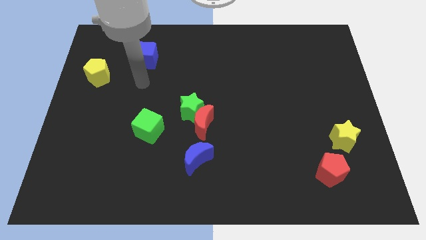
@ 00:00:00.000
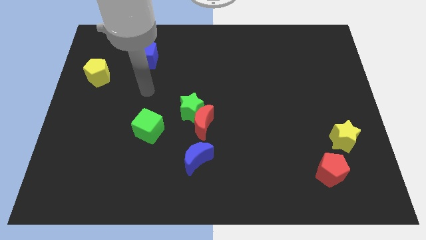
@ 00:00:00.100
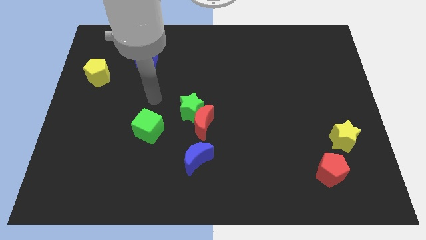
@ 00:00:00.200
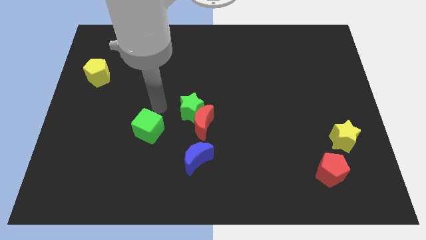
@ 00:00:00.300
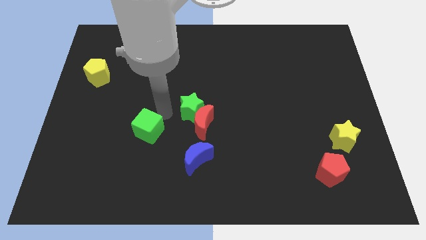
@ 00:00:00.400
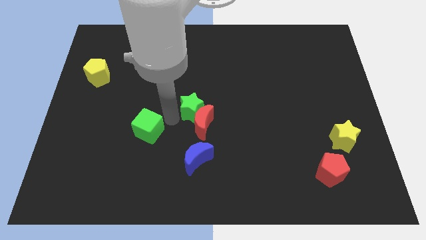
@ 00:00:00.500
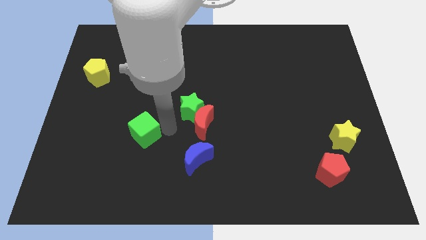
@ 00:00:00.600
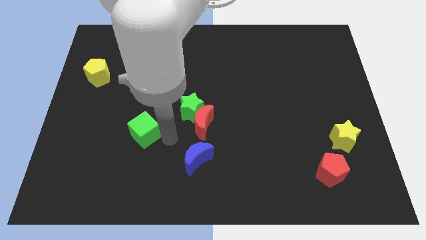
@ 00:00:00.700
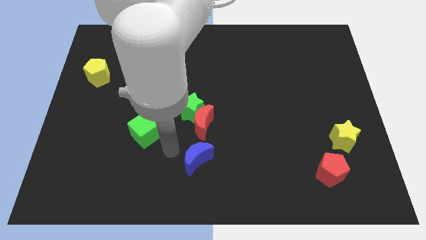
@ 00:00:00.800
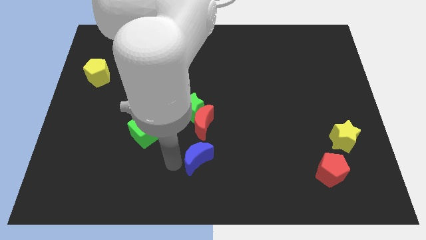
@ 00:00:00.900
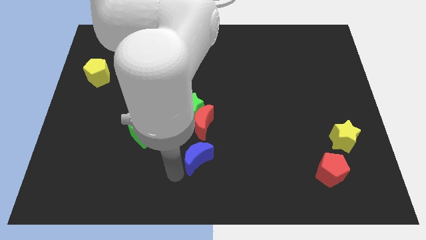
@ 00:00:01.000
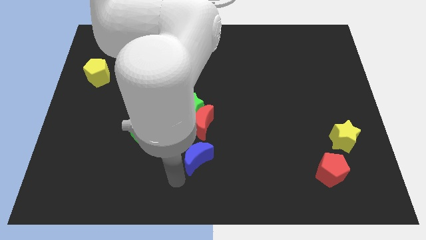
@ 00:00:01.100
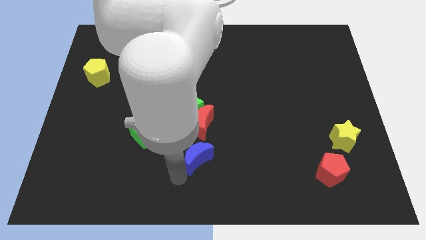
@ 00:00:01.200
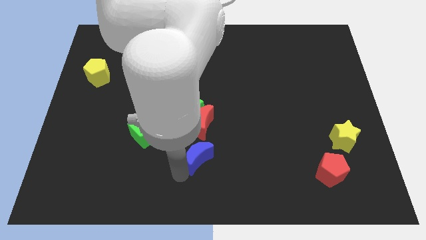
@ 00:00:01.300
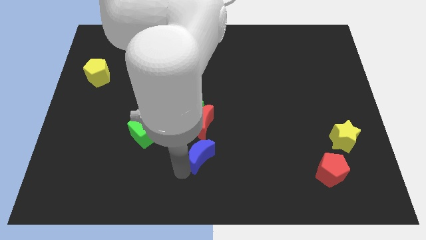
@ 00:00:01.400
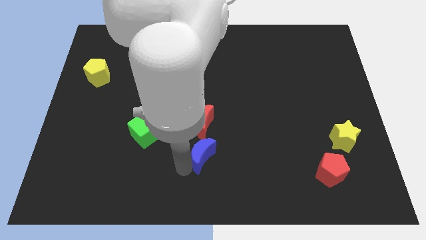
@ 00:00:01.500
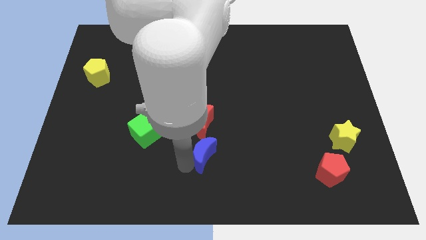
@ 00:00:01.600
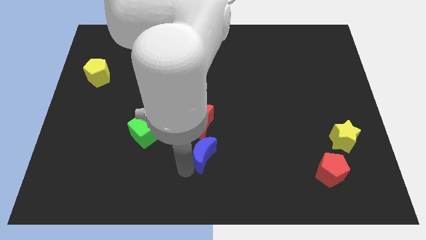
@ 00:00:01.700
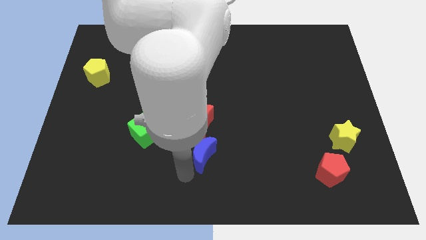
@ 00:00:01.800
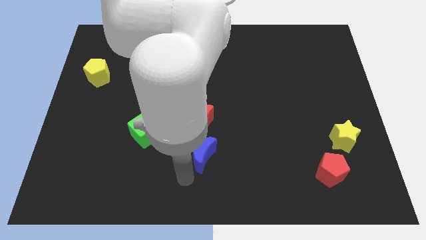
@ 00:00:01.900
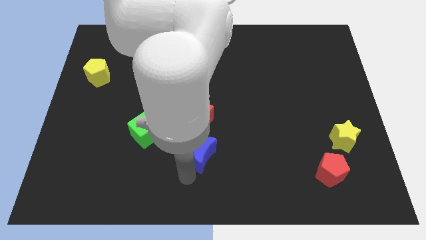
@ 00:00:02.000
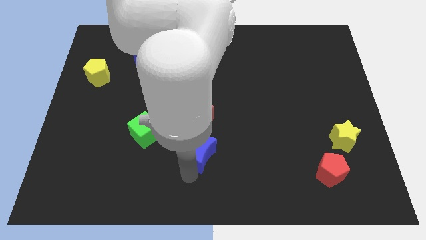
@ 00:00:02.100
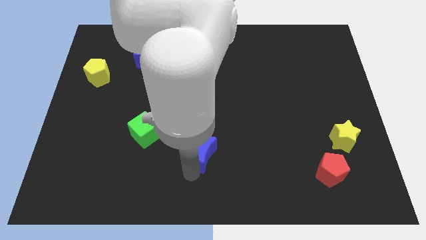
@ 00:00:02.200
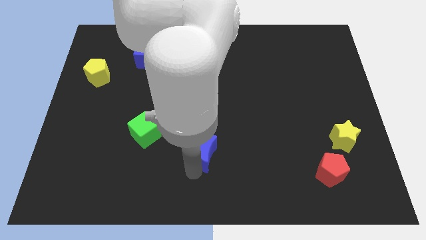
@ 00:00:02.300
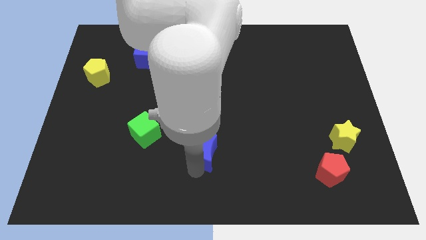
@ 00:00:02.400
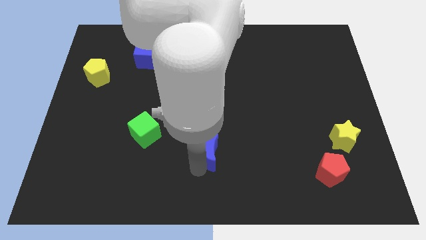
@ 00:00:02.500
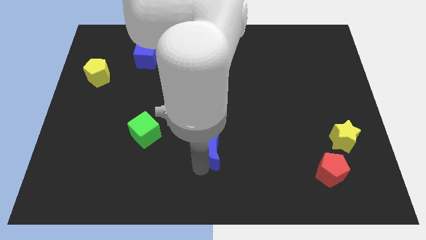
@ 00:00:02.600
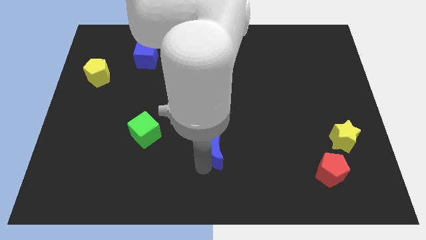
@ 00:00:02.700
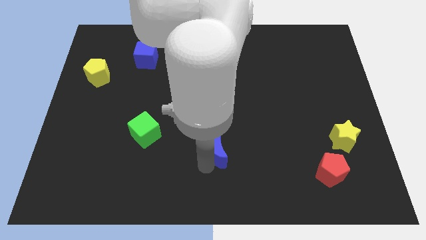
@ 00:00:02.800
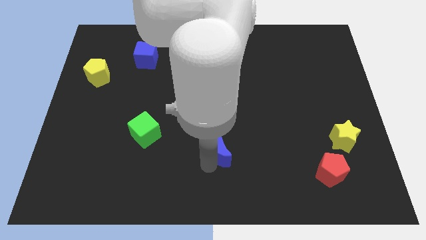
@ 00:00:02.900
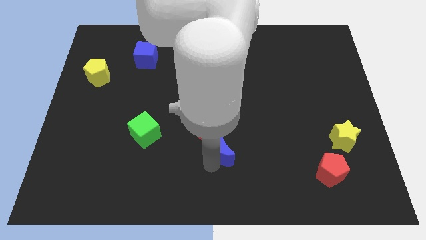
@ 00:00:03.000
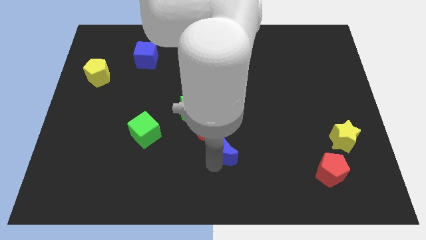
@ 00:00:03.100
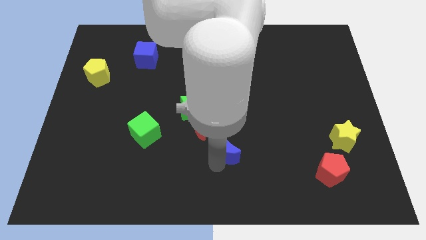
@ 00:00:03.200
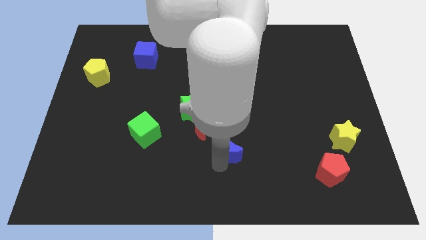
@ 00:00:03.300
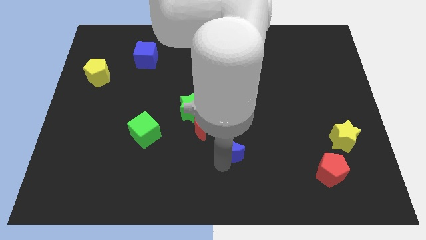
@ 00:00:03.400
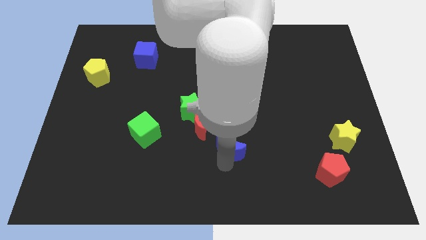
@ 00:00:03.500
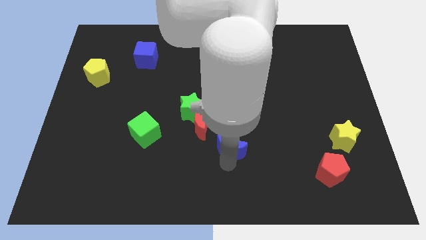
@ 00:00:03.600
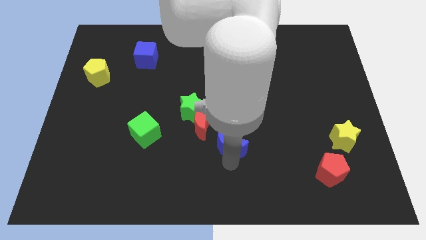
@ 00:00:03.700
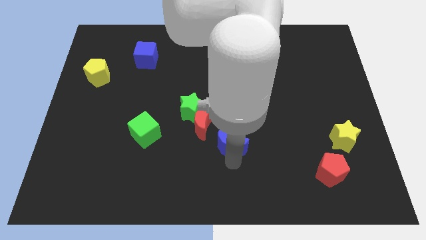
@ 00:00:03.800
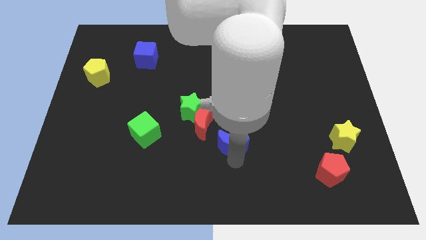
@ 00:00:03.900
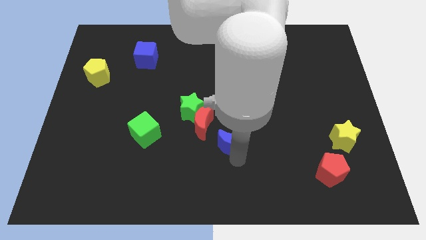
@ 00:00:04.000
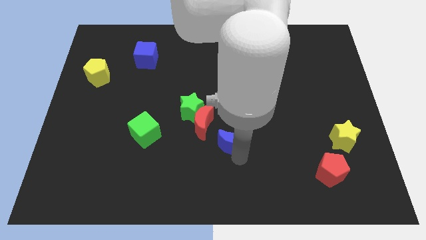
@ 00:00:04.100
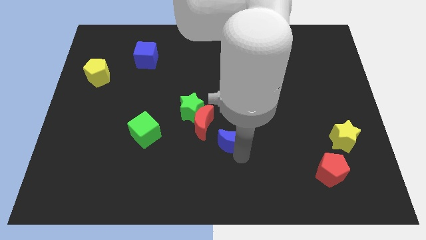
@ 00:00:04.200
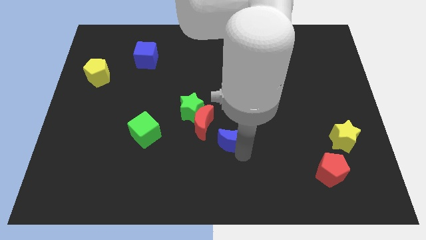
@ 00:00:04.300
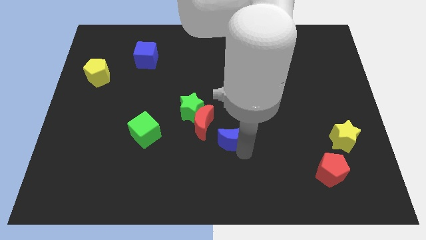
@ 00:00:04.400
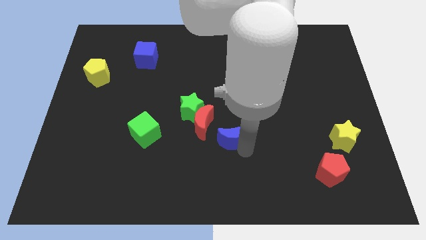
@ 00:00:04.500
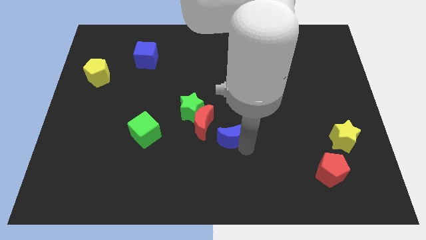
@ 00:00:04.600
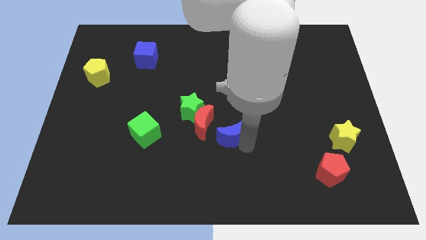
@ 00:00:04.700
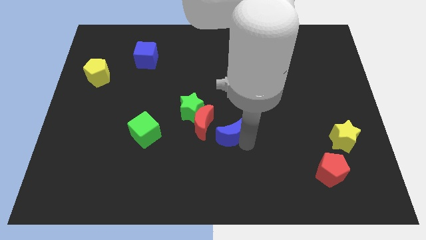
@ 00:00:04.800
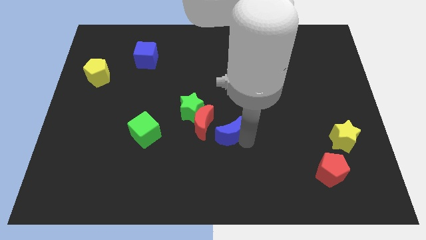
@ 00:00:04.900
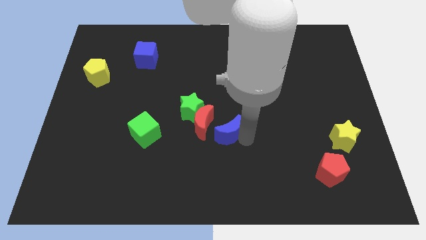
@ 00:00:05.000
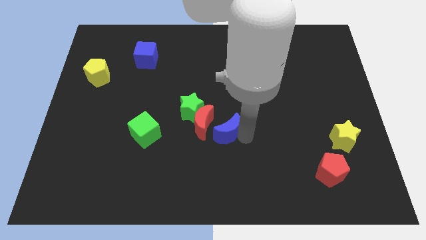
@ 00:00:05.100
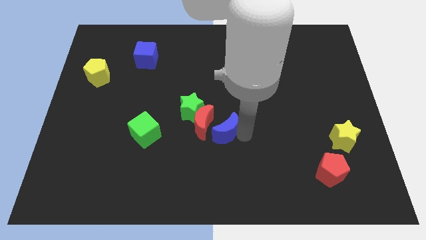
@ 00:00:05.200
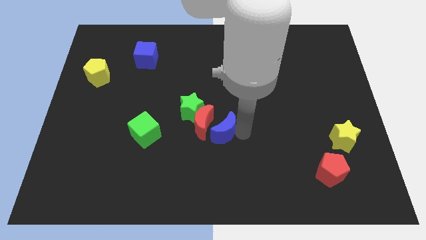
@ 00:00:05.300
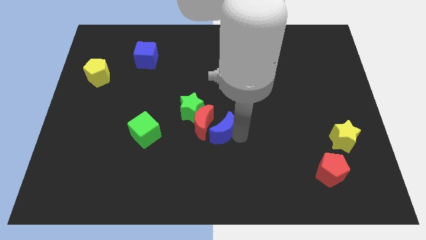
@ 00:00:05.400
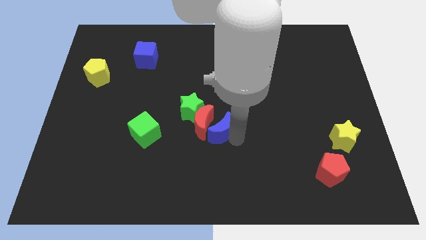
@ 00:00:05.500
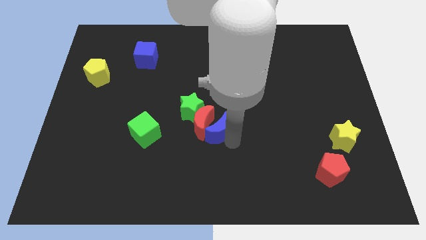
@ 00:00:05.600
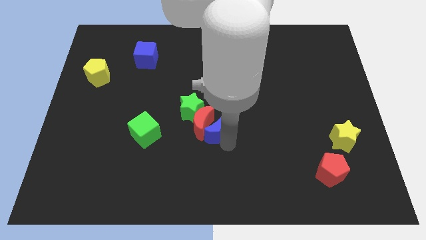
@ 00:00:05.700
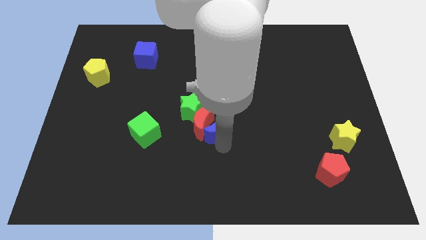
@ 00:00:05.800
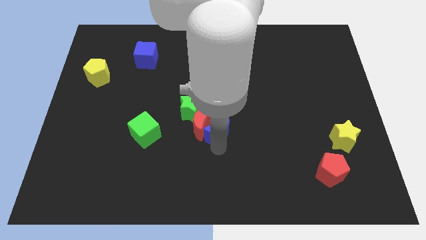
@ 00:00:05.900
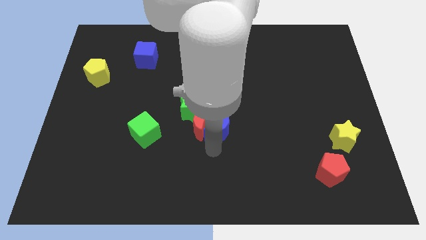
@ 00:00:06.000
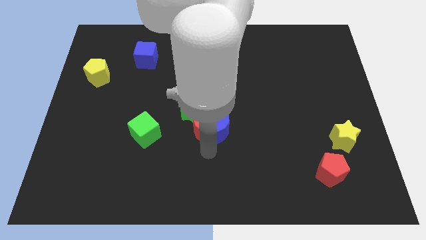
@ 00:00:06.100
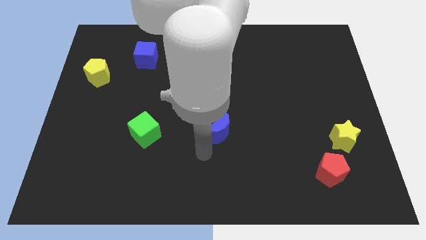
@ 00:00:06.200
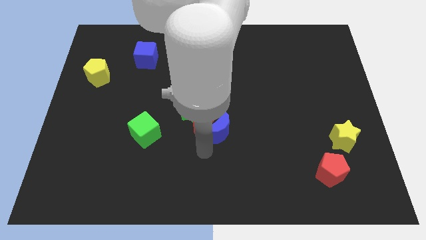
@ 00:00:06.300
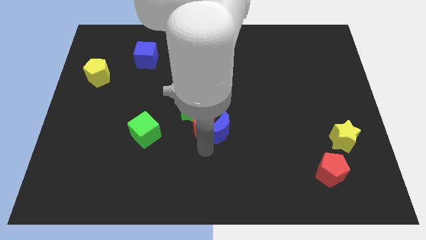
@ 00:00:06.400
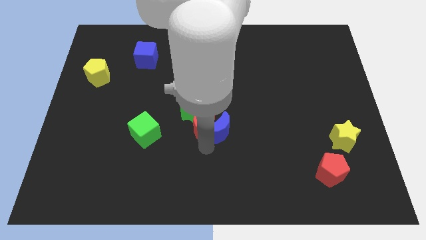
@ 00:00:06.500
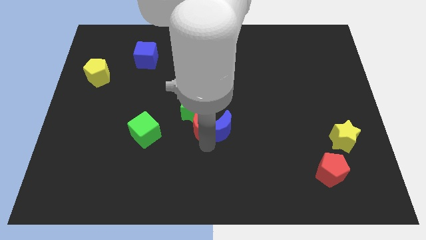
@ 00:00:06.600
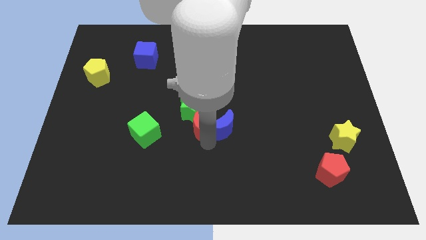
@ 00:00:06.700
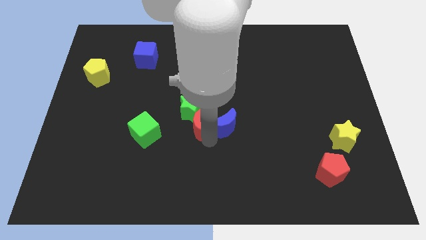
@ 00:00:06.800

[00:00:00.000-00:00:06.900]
slightly slide the blue moon upwards

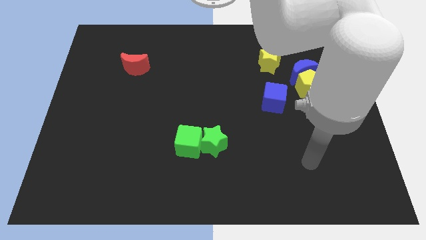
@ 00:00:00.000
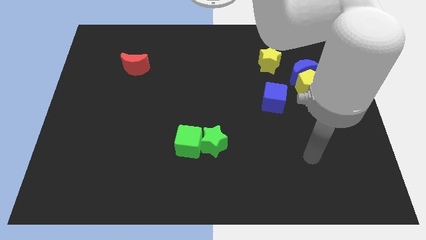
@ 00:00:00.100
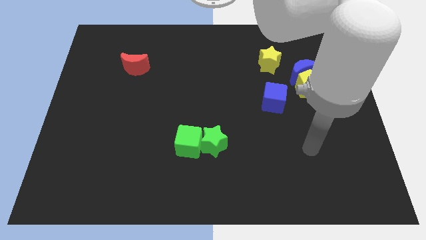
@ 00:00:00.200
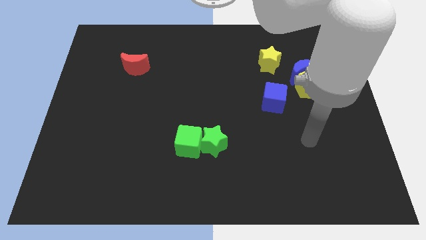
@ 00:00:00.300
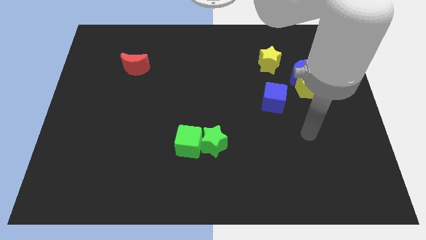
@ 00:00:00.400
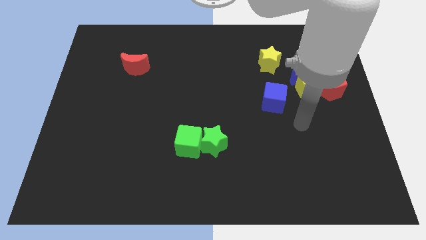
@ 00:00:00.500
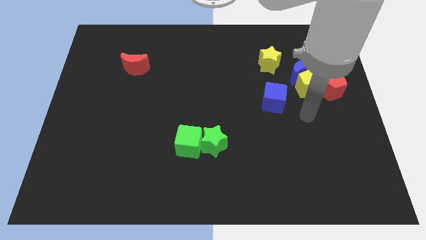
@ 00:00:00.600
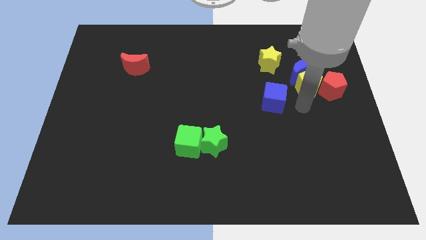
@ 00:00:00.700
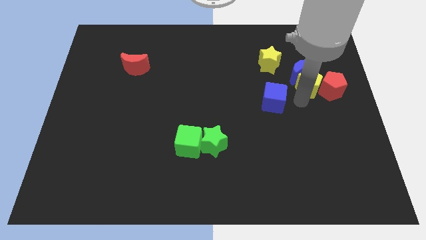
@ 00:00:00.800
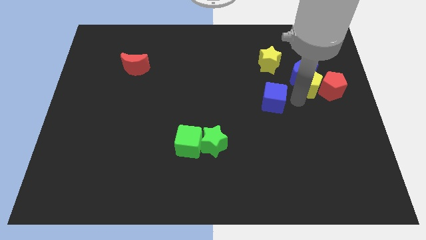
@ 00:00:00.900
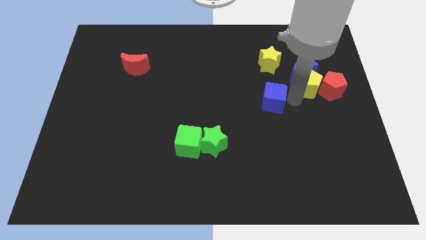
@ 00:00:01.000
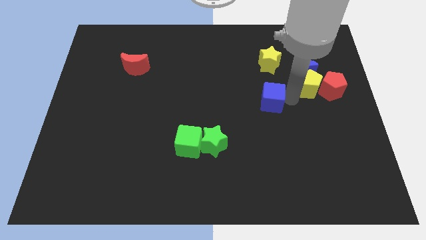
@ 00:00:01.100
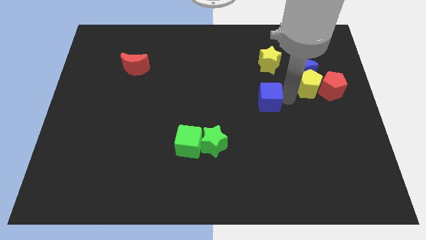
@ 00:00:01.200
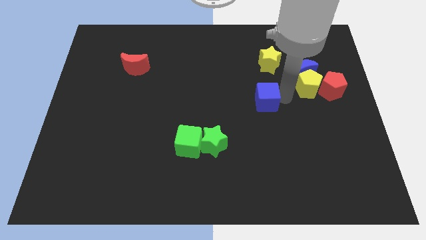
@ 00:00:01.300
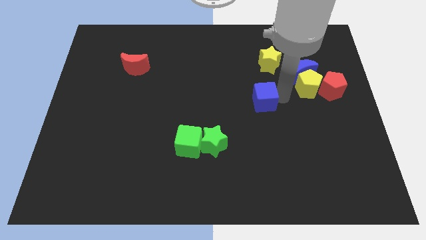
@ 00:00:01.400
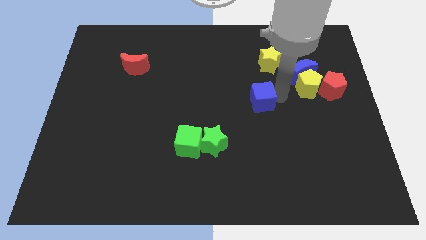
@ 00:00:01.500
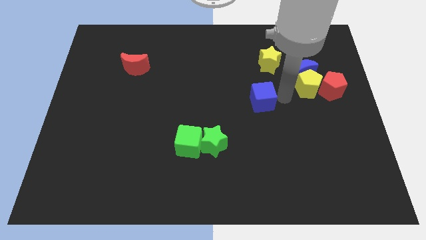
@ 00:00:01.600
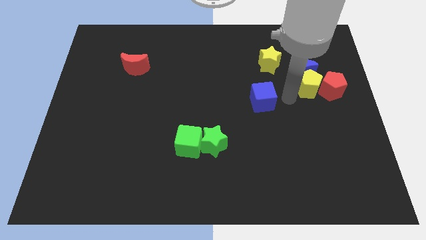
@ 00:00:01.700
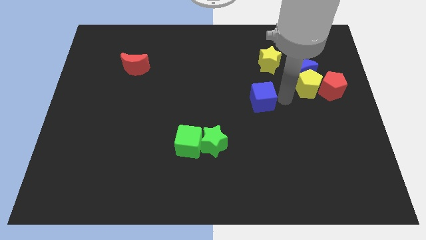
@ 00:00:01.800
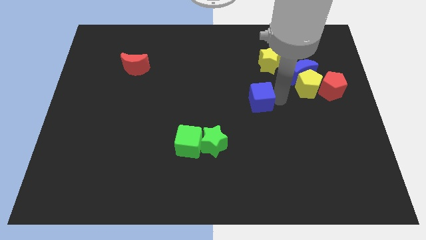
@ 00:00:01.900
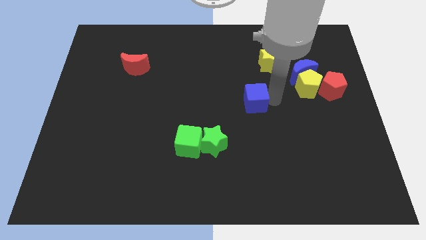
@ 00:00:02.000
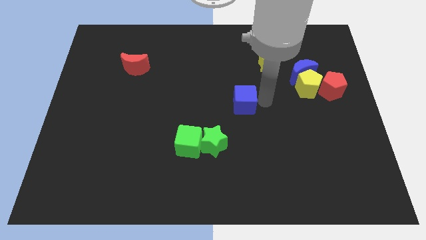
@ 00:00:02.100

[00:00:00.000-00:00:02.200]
push the blue cube left somewhat
